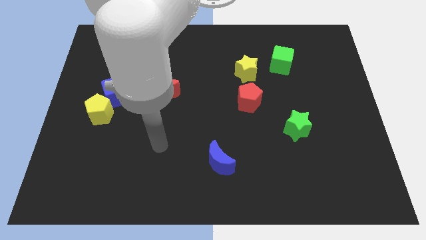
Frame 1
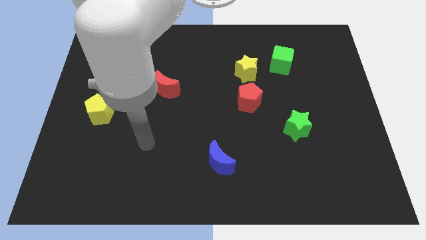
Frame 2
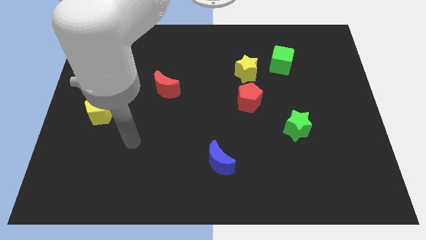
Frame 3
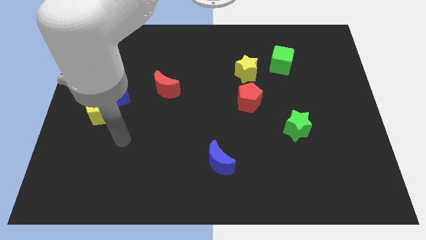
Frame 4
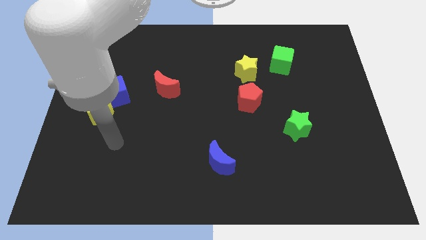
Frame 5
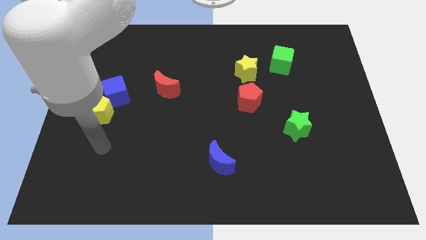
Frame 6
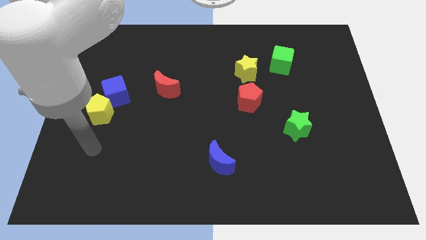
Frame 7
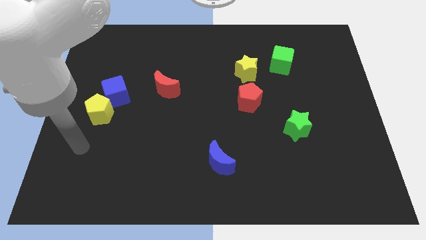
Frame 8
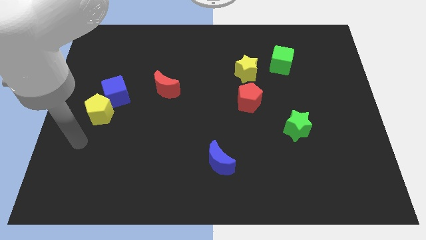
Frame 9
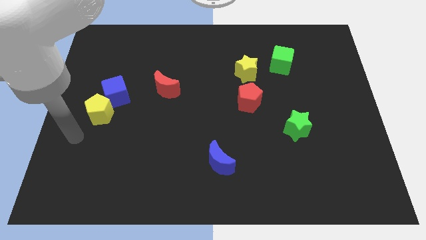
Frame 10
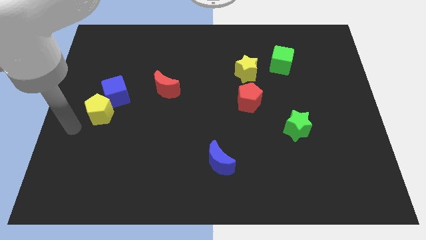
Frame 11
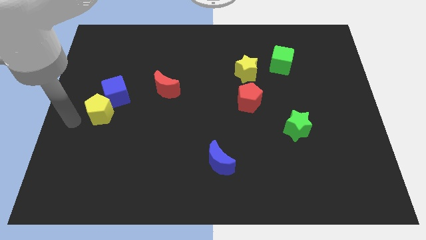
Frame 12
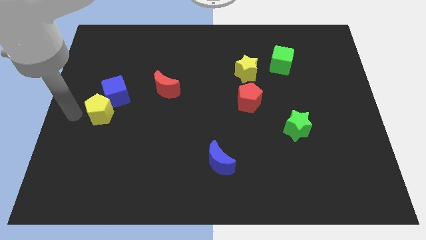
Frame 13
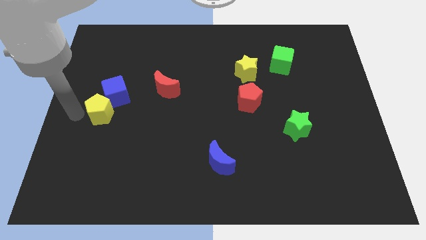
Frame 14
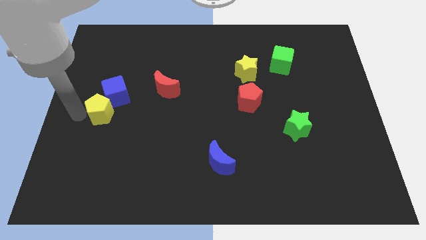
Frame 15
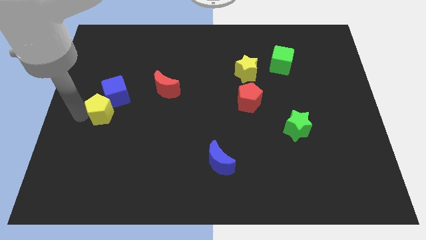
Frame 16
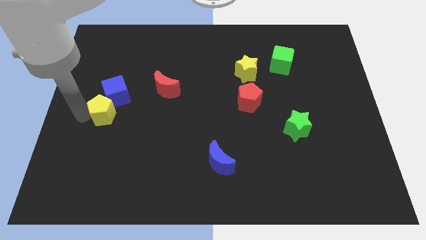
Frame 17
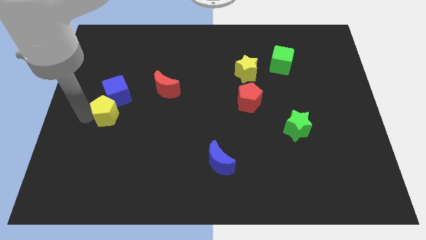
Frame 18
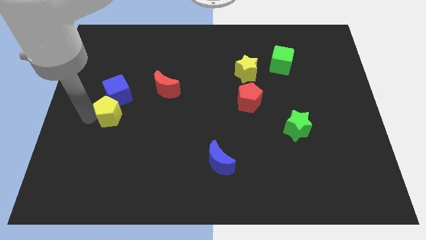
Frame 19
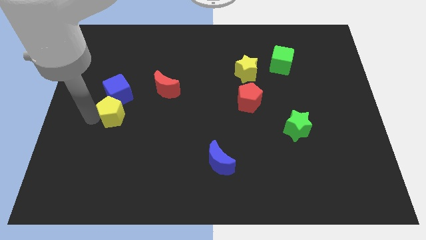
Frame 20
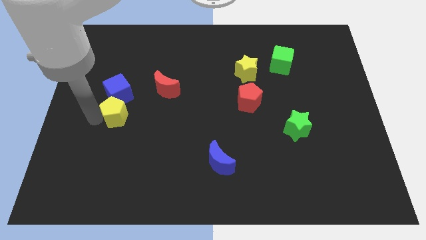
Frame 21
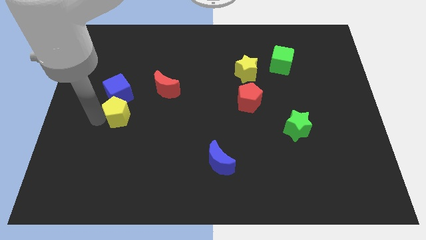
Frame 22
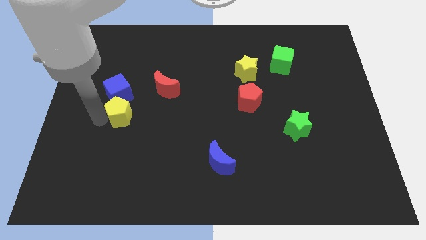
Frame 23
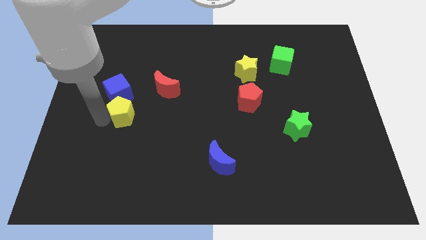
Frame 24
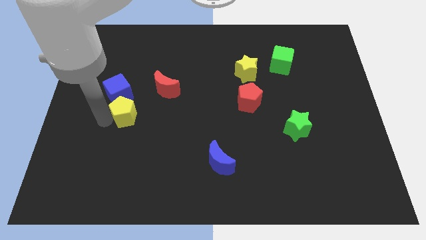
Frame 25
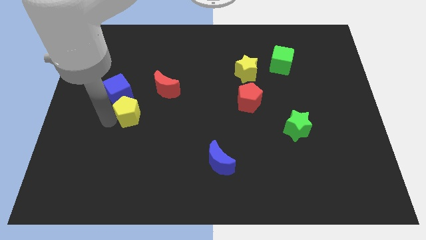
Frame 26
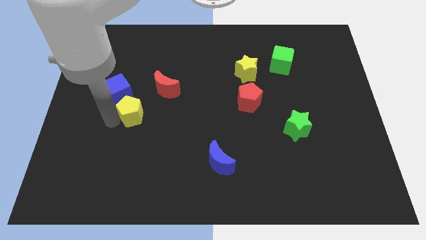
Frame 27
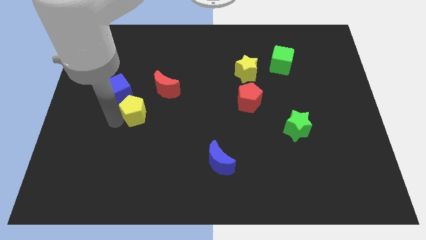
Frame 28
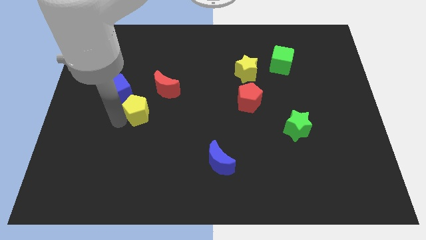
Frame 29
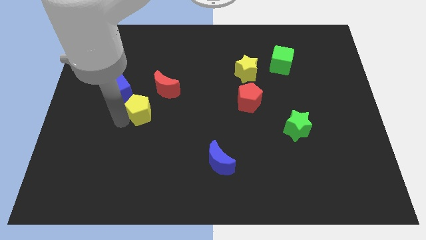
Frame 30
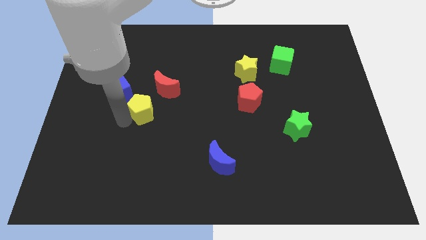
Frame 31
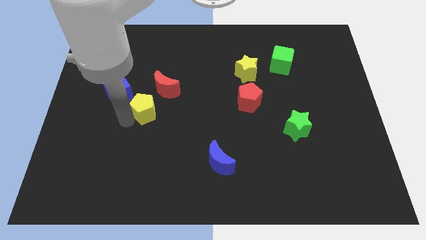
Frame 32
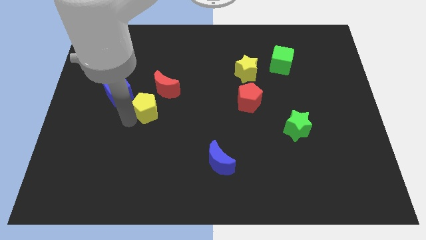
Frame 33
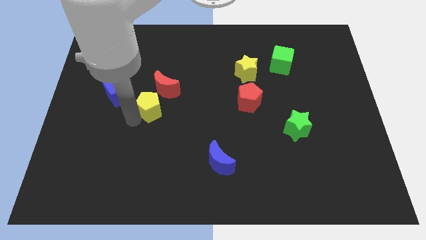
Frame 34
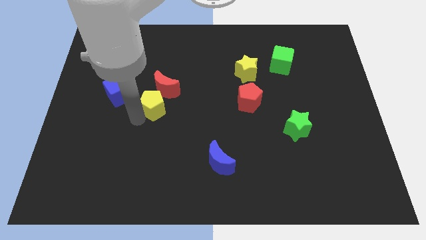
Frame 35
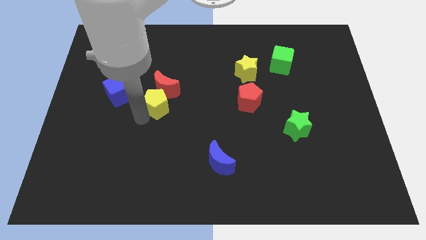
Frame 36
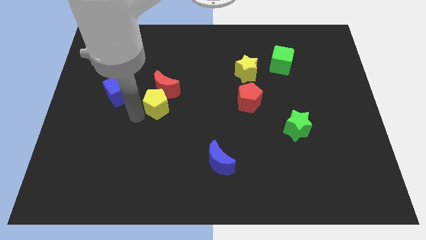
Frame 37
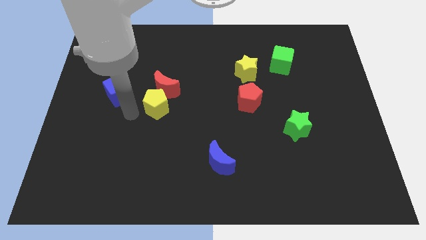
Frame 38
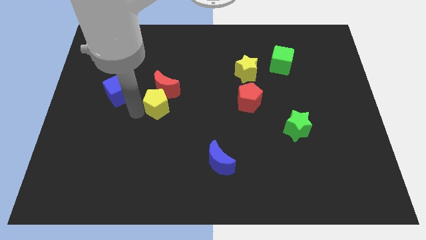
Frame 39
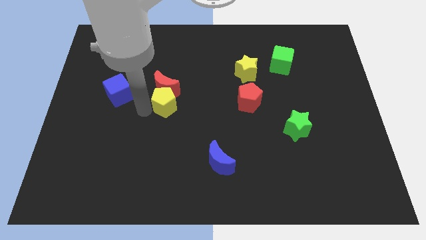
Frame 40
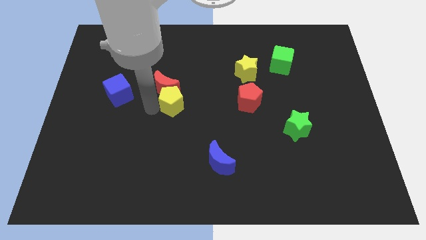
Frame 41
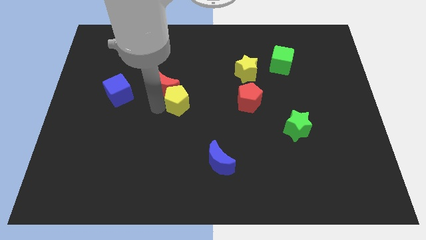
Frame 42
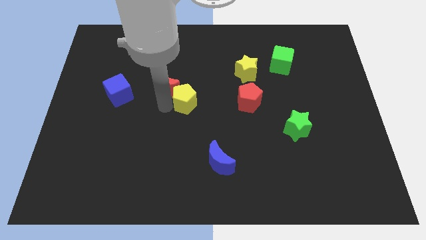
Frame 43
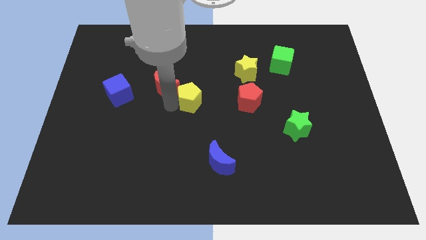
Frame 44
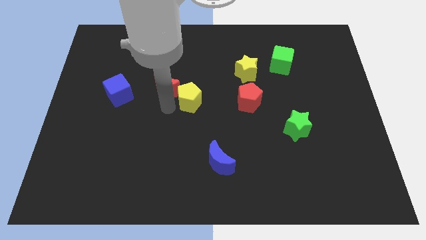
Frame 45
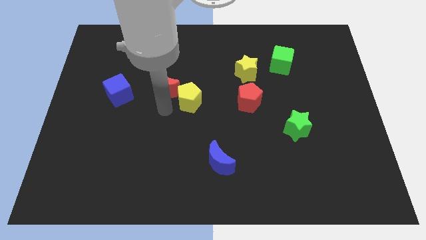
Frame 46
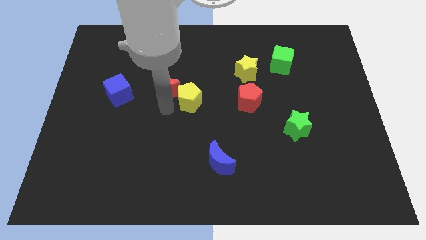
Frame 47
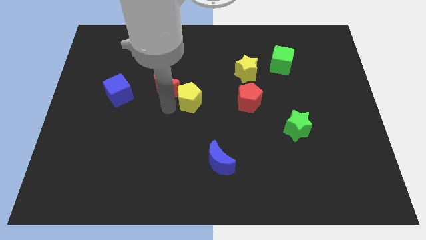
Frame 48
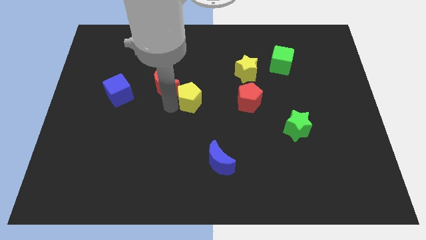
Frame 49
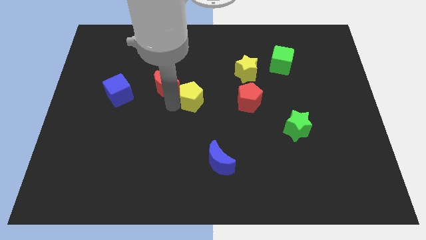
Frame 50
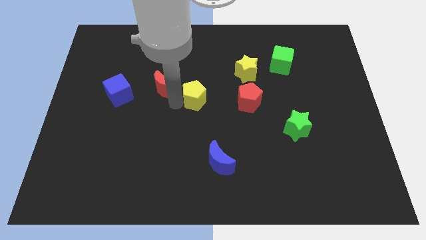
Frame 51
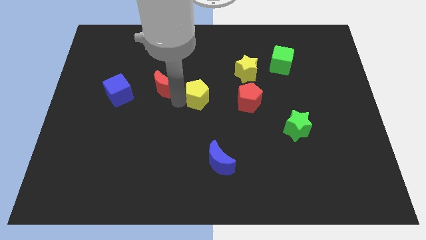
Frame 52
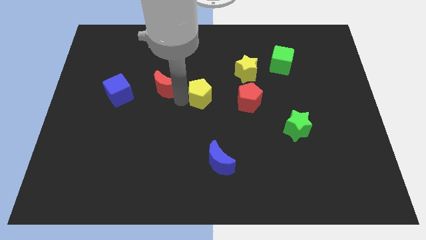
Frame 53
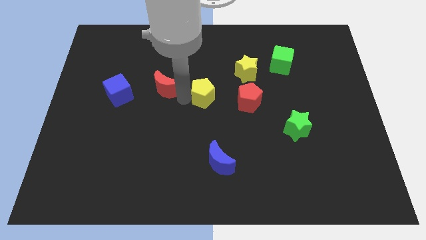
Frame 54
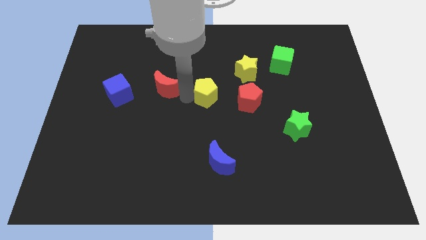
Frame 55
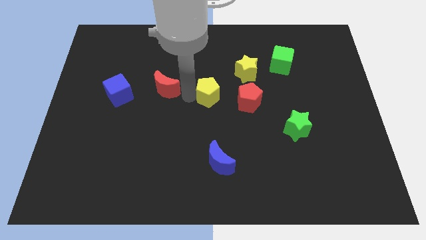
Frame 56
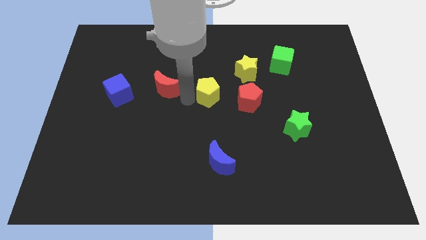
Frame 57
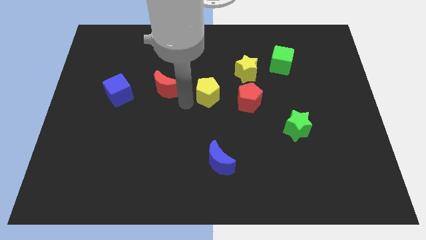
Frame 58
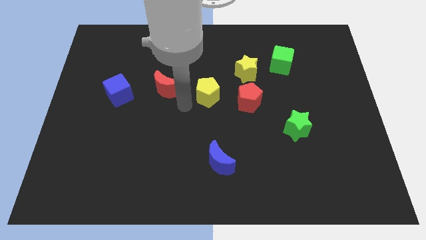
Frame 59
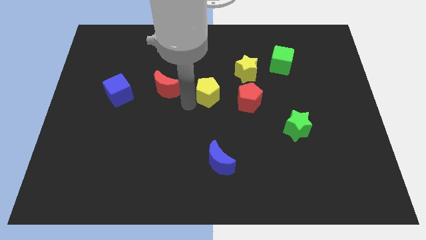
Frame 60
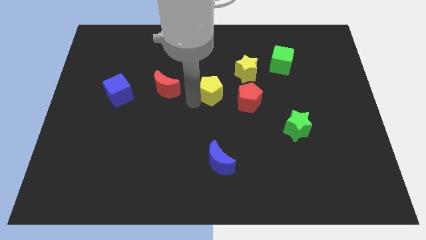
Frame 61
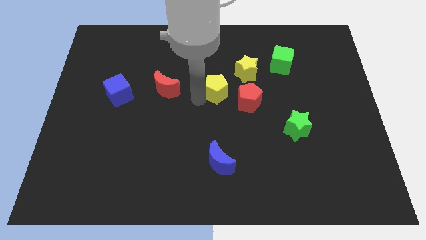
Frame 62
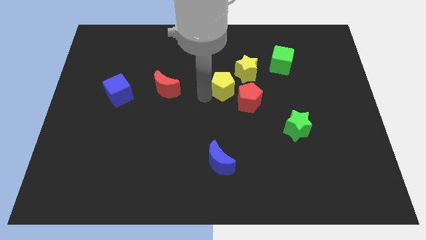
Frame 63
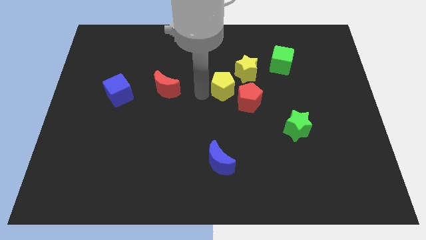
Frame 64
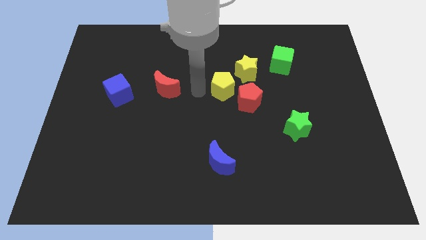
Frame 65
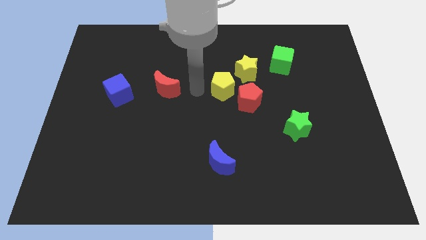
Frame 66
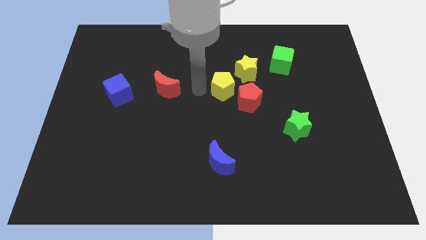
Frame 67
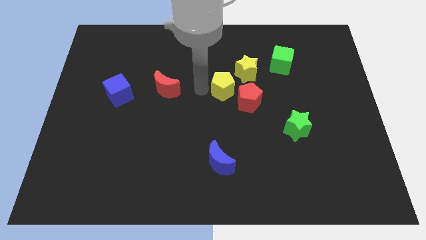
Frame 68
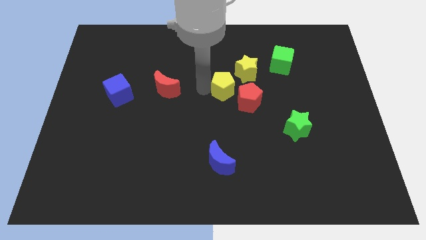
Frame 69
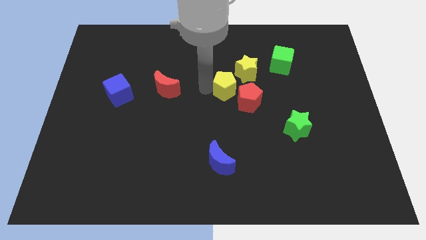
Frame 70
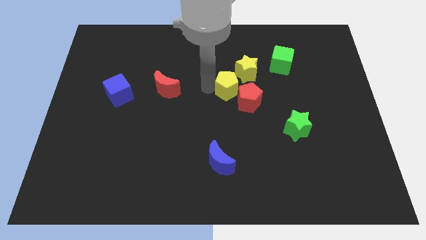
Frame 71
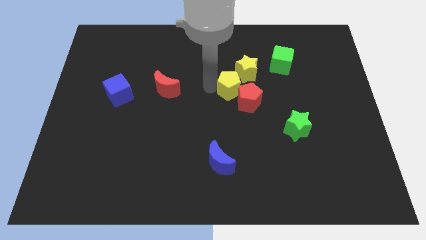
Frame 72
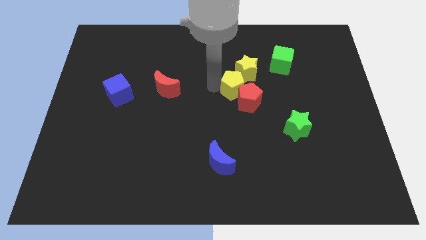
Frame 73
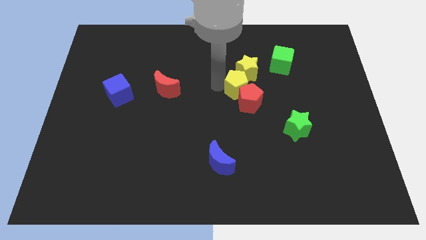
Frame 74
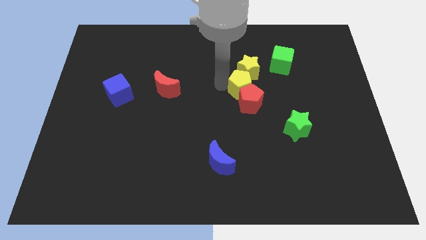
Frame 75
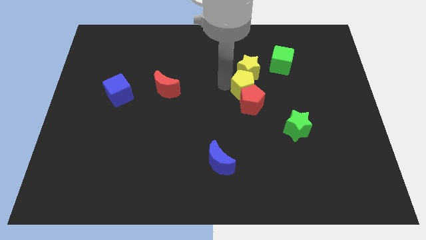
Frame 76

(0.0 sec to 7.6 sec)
push the yellow pentagon to the bottom right of the yellow star
